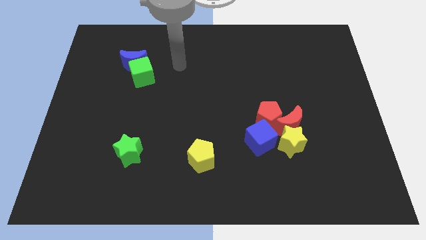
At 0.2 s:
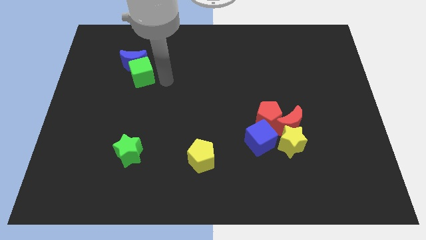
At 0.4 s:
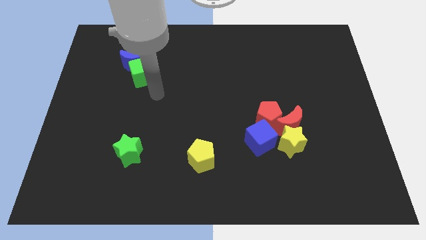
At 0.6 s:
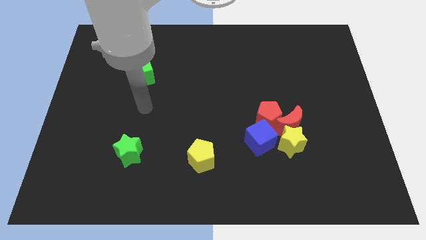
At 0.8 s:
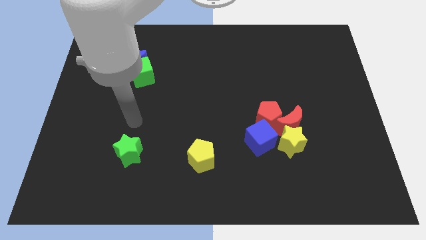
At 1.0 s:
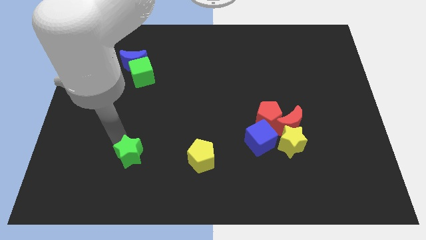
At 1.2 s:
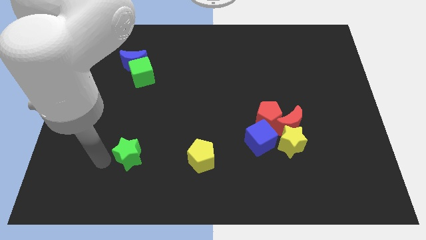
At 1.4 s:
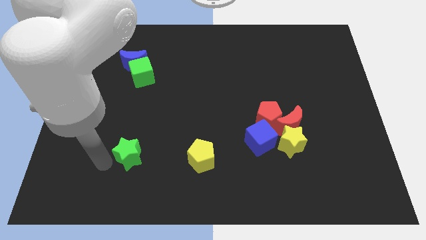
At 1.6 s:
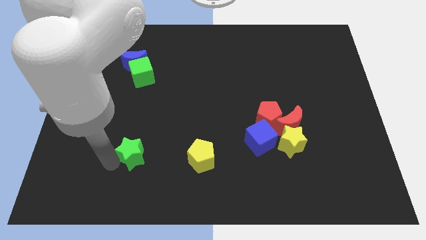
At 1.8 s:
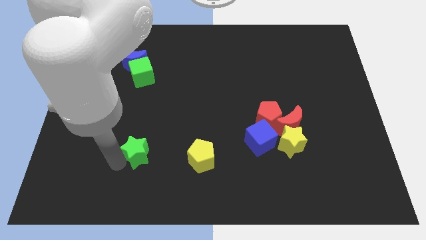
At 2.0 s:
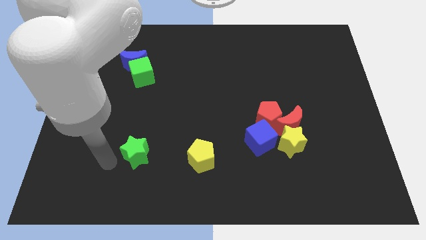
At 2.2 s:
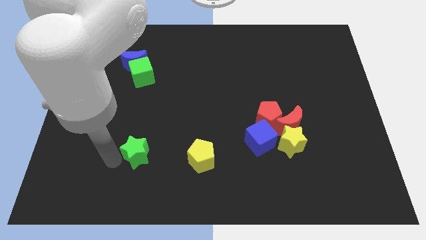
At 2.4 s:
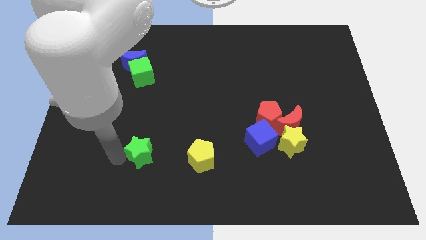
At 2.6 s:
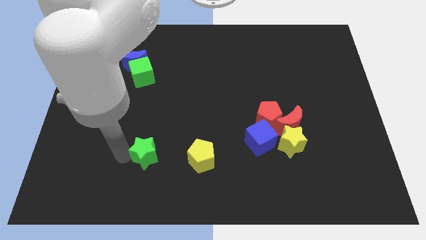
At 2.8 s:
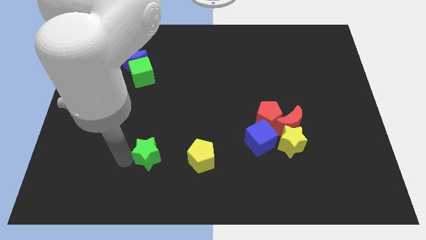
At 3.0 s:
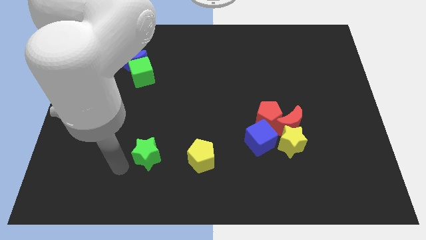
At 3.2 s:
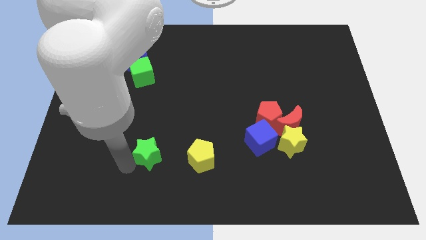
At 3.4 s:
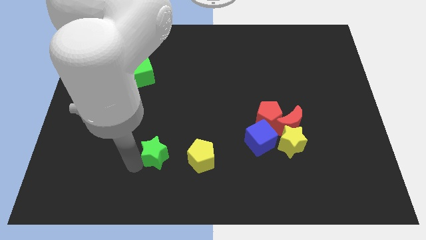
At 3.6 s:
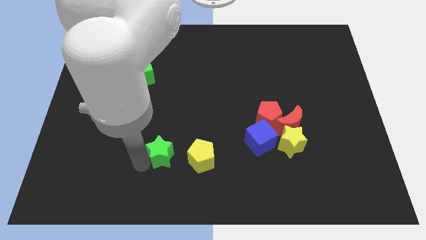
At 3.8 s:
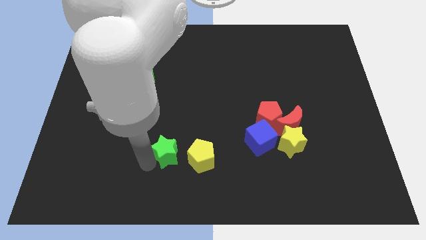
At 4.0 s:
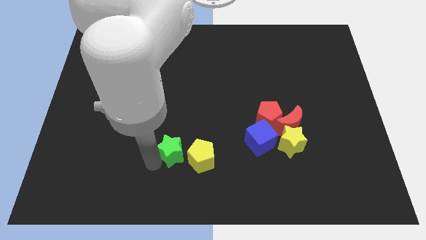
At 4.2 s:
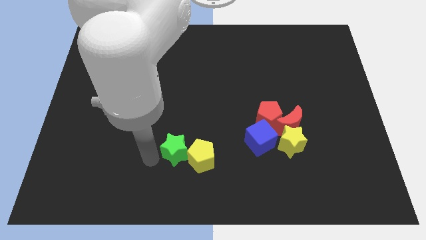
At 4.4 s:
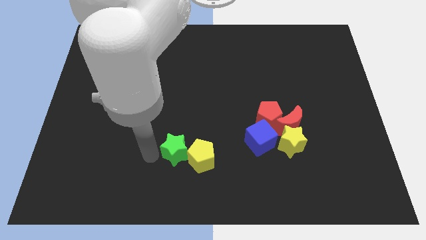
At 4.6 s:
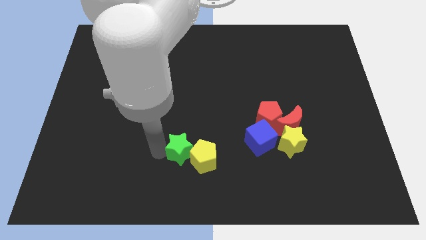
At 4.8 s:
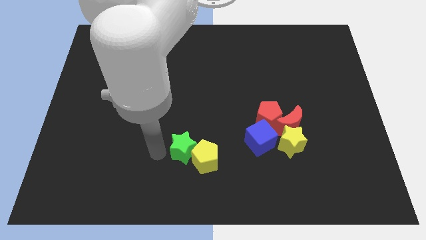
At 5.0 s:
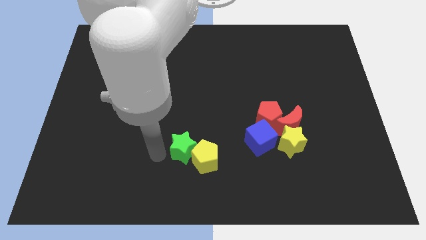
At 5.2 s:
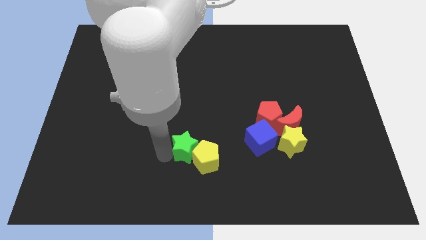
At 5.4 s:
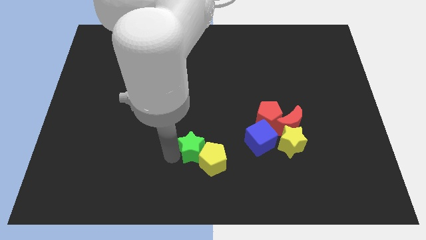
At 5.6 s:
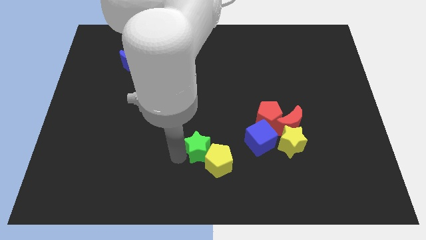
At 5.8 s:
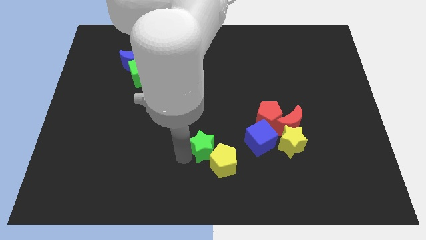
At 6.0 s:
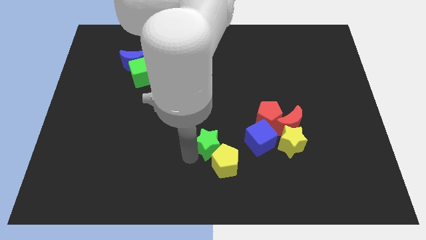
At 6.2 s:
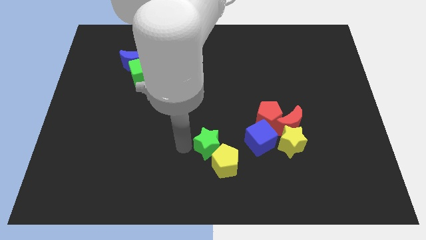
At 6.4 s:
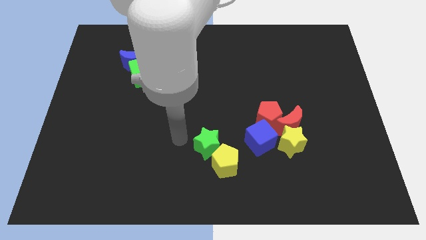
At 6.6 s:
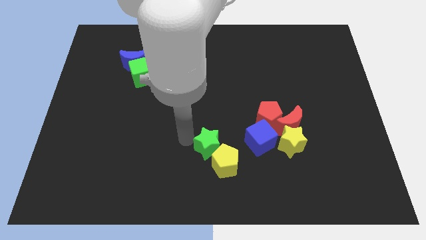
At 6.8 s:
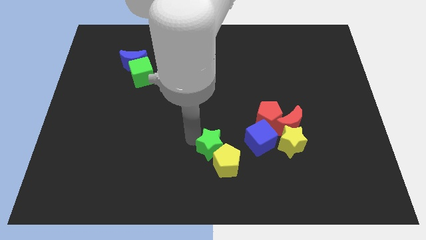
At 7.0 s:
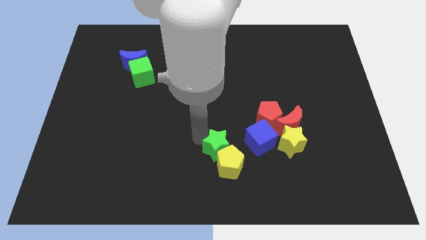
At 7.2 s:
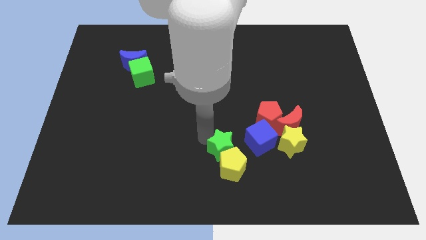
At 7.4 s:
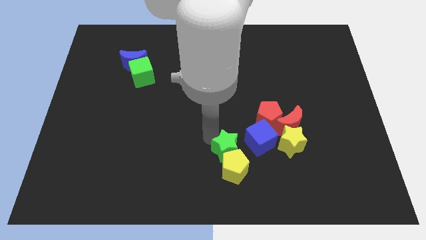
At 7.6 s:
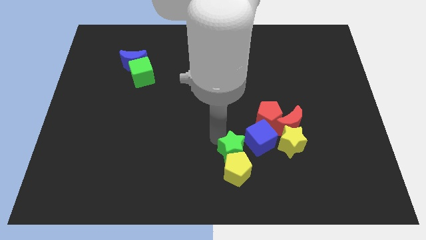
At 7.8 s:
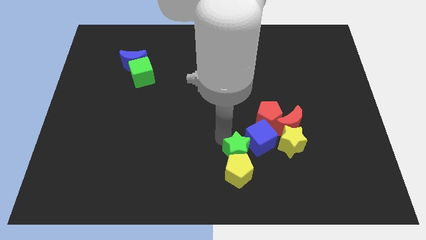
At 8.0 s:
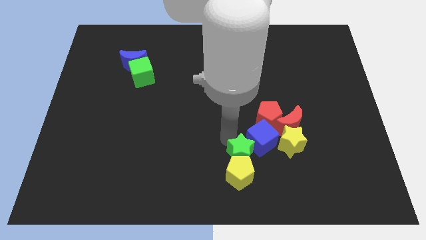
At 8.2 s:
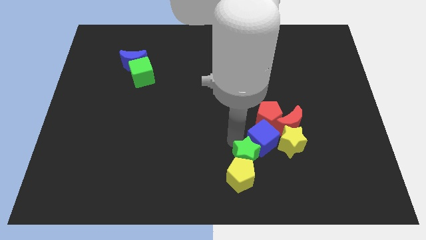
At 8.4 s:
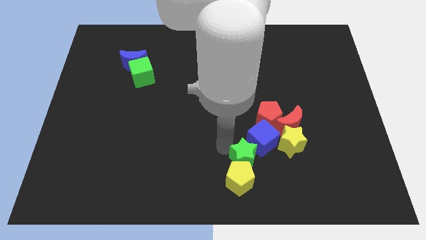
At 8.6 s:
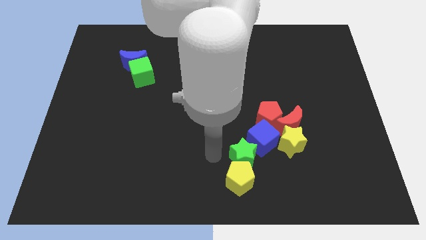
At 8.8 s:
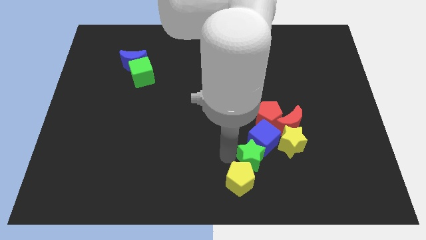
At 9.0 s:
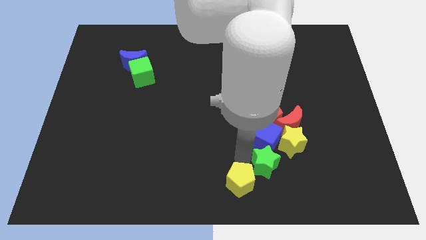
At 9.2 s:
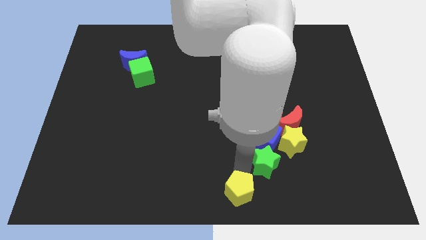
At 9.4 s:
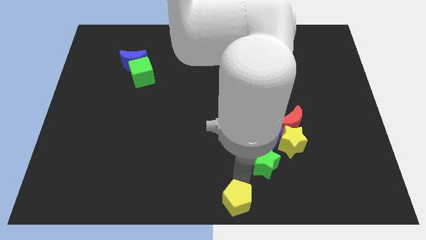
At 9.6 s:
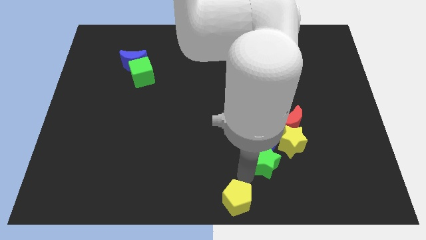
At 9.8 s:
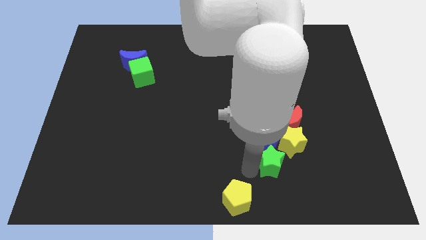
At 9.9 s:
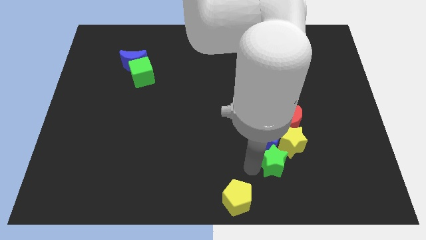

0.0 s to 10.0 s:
move the green star next to the yellow star

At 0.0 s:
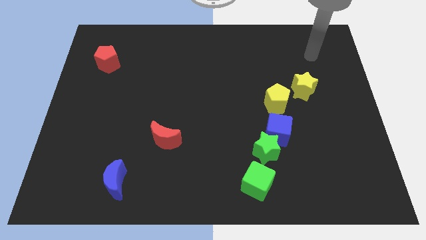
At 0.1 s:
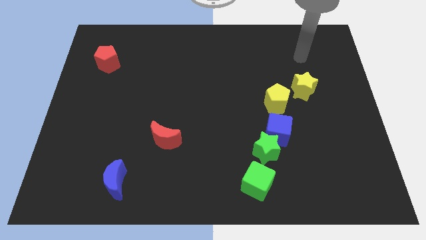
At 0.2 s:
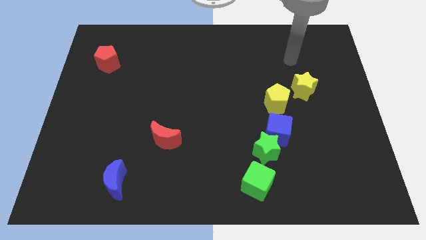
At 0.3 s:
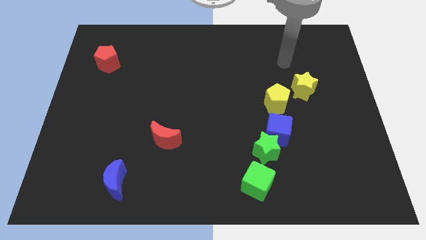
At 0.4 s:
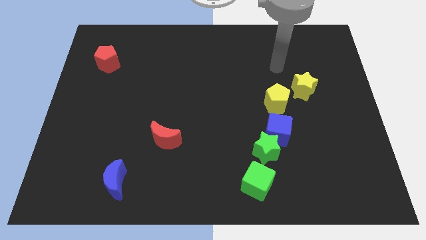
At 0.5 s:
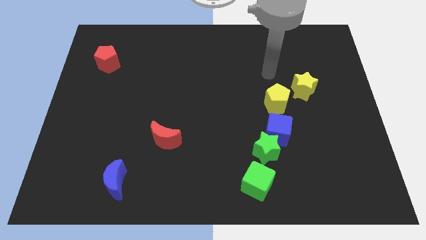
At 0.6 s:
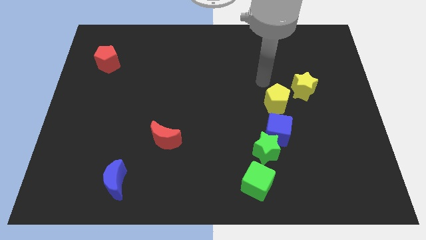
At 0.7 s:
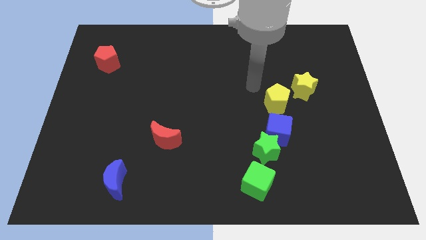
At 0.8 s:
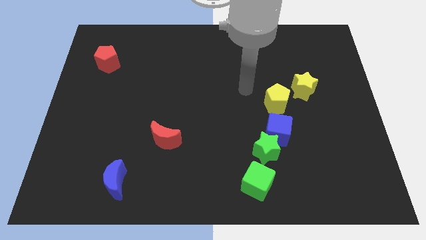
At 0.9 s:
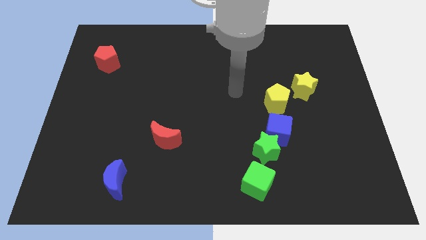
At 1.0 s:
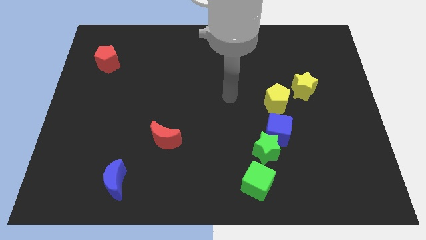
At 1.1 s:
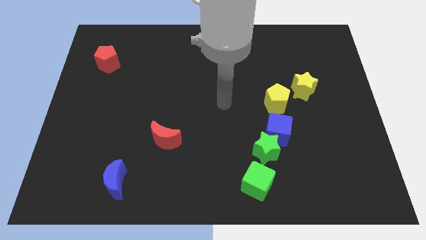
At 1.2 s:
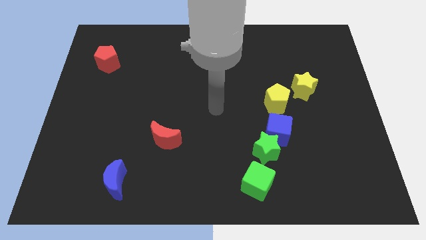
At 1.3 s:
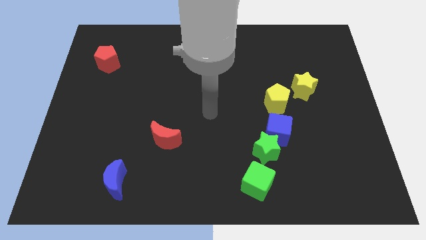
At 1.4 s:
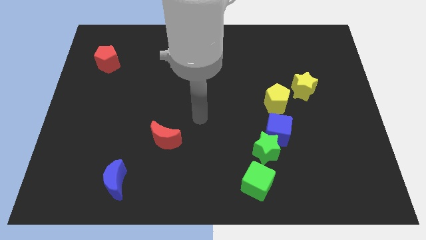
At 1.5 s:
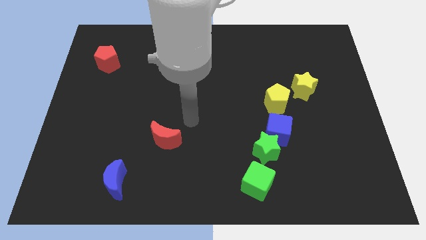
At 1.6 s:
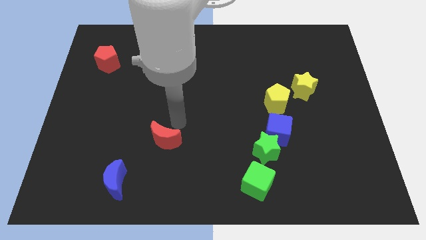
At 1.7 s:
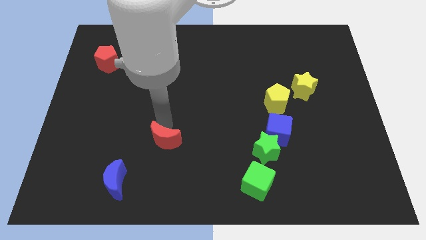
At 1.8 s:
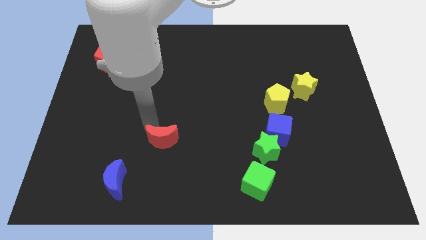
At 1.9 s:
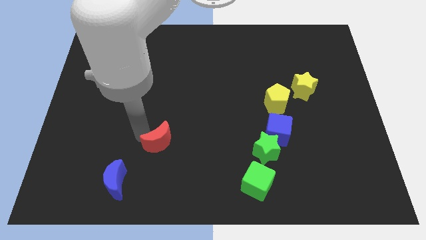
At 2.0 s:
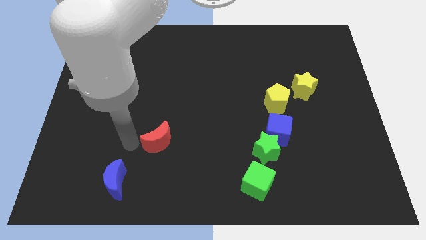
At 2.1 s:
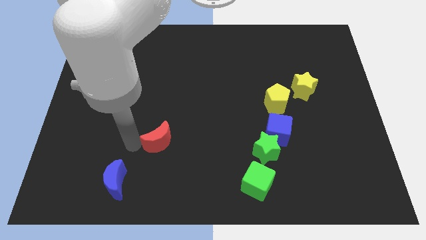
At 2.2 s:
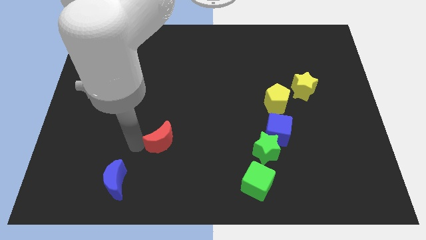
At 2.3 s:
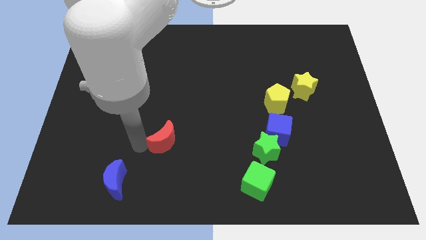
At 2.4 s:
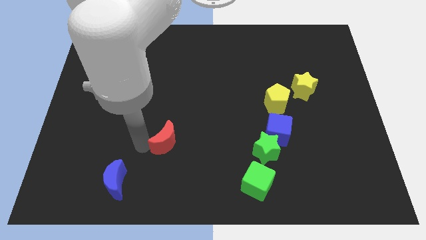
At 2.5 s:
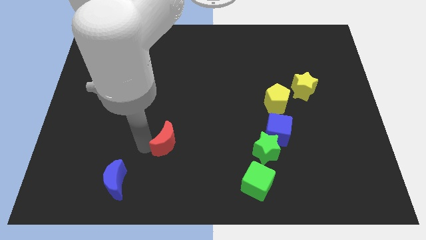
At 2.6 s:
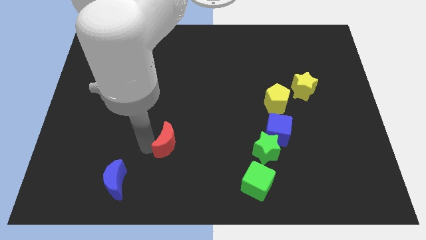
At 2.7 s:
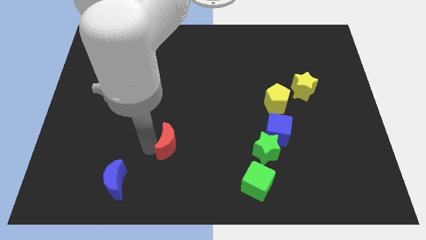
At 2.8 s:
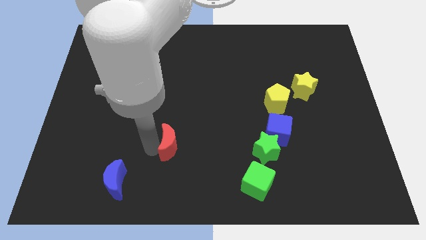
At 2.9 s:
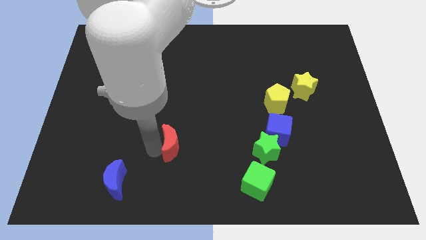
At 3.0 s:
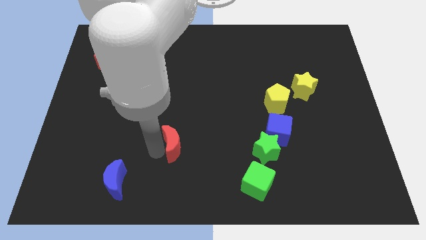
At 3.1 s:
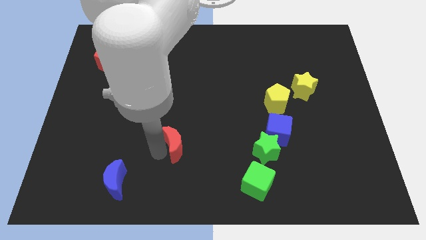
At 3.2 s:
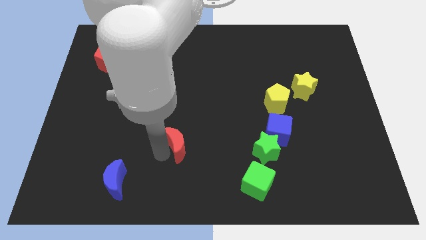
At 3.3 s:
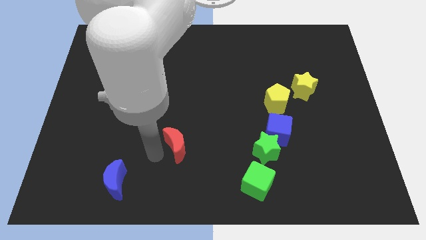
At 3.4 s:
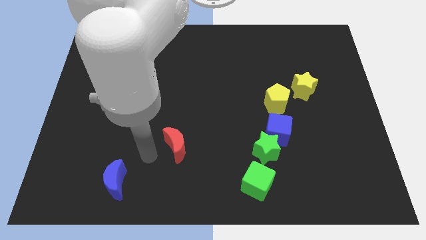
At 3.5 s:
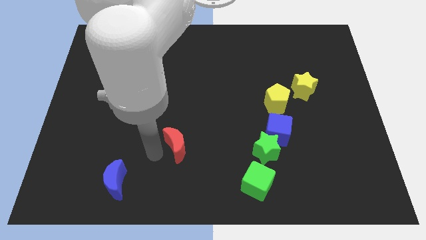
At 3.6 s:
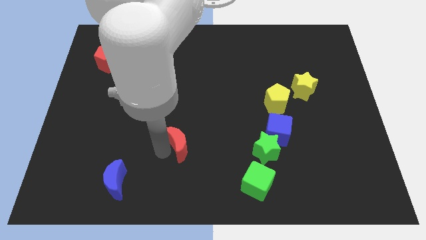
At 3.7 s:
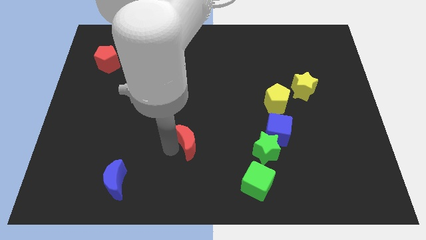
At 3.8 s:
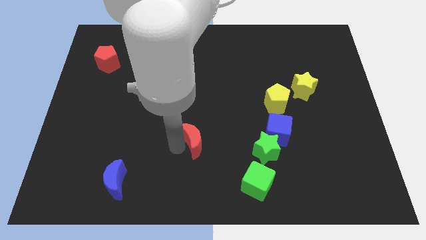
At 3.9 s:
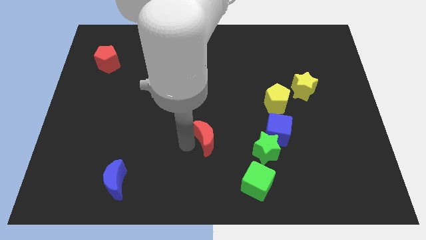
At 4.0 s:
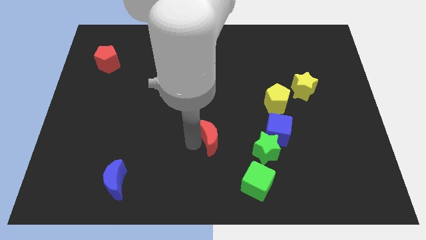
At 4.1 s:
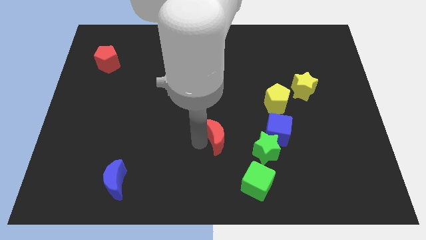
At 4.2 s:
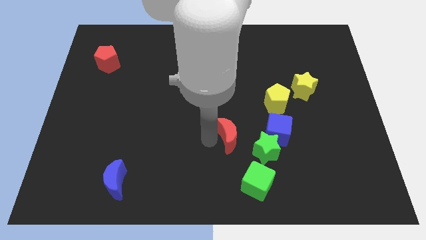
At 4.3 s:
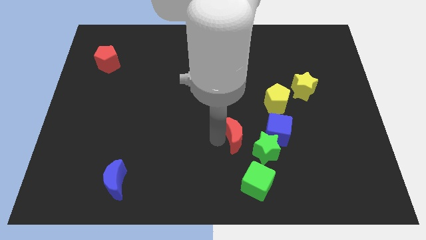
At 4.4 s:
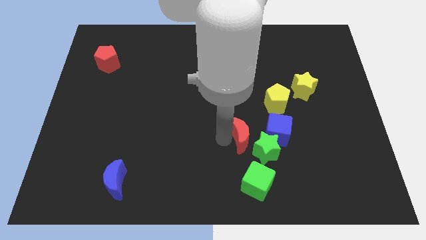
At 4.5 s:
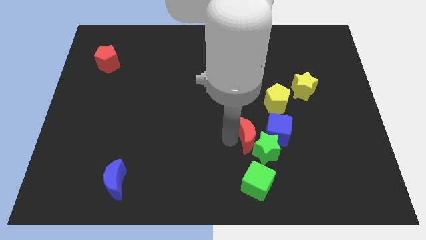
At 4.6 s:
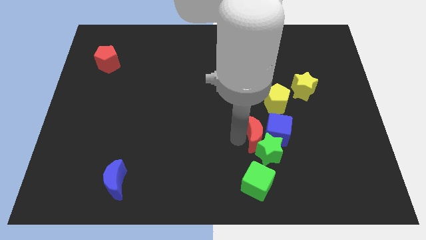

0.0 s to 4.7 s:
push the red moon close to the blue cube
